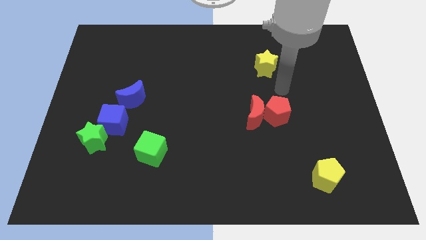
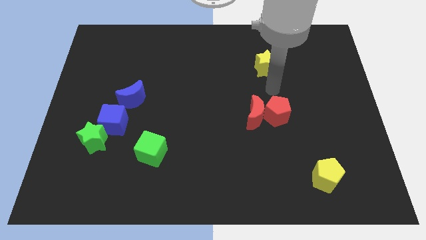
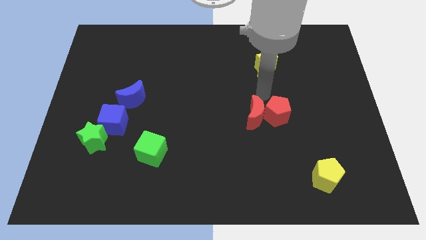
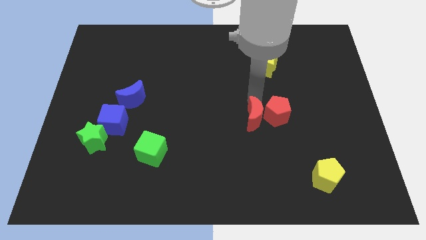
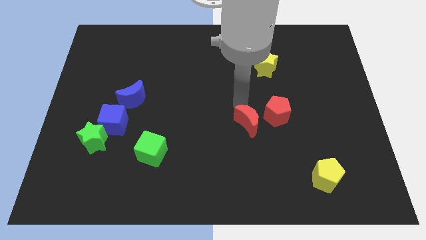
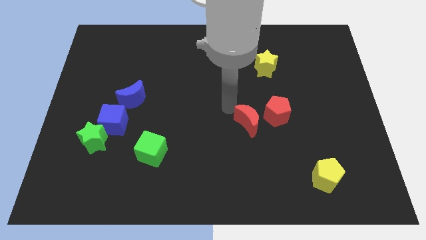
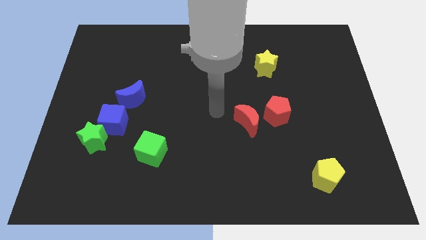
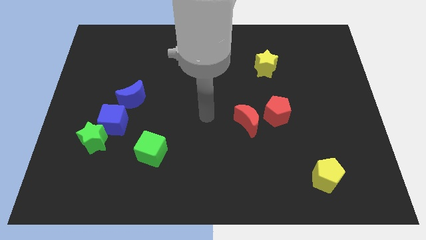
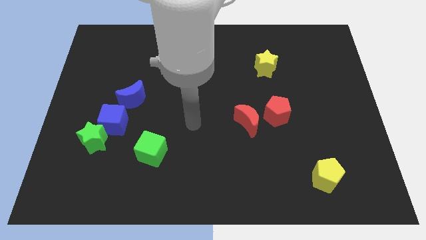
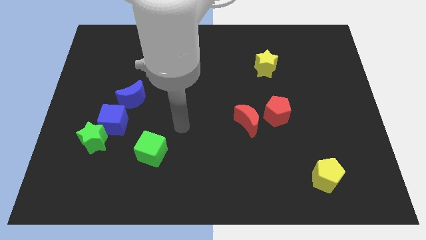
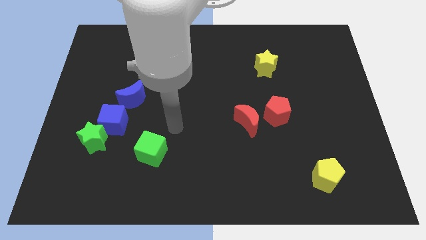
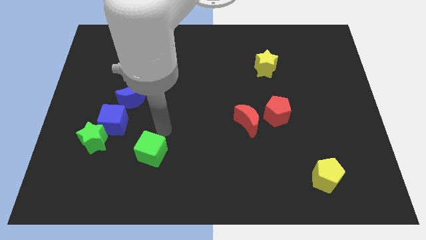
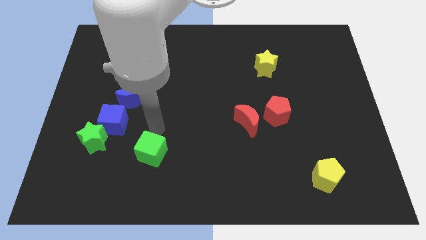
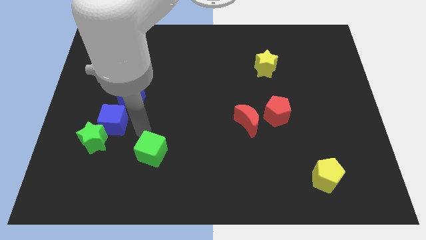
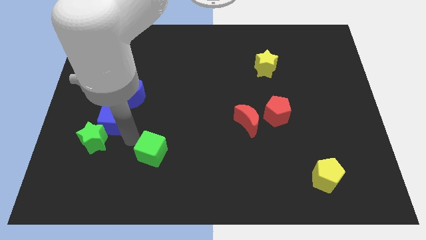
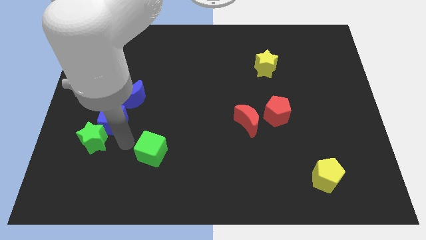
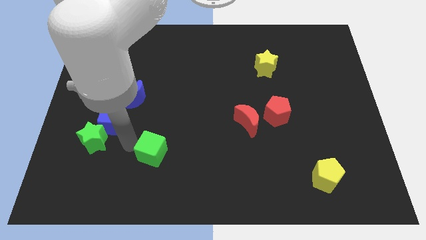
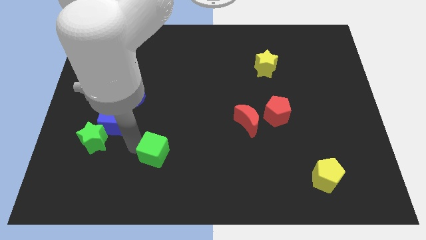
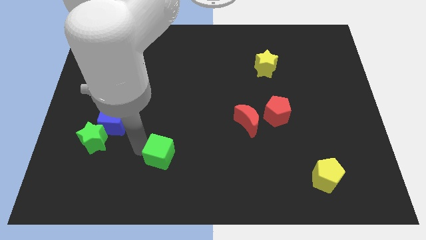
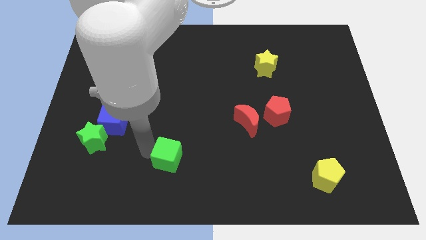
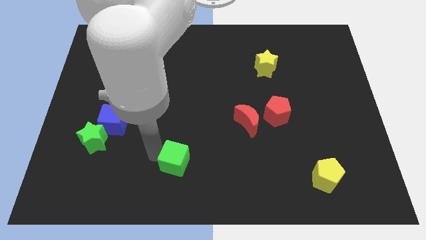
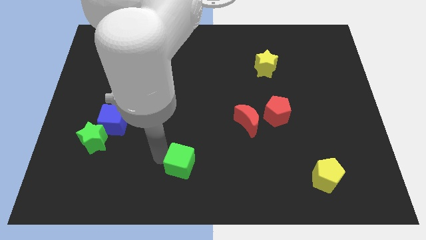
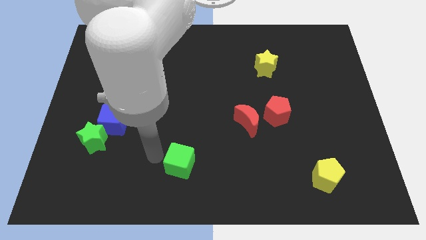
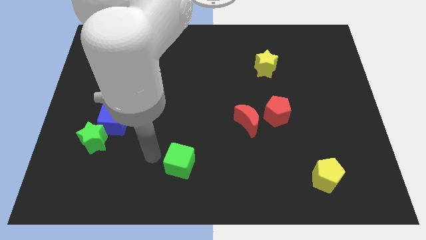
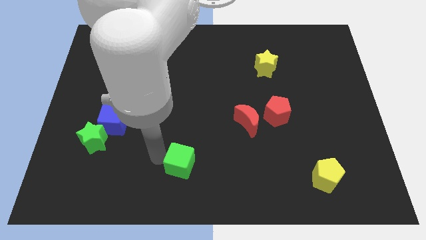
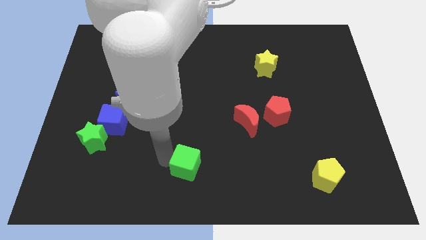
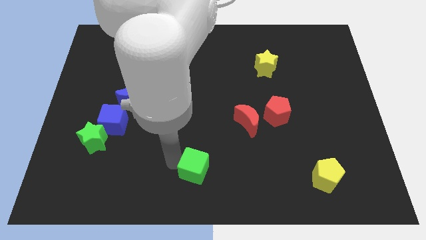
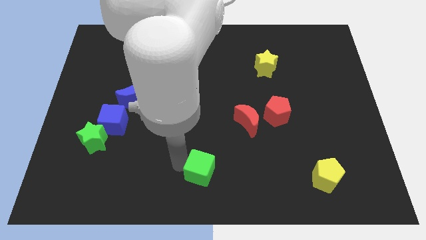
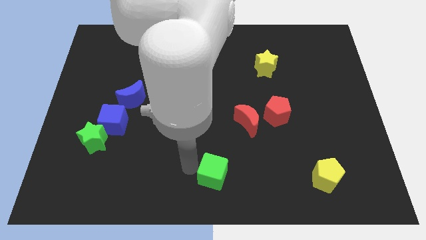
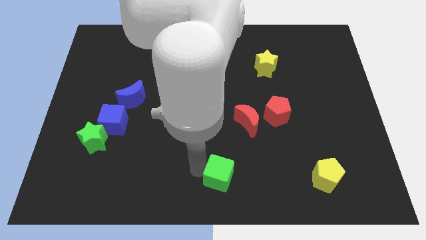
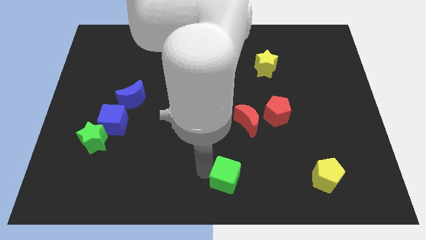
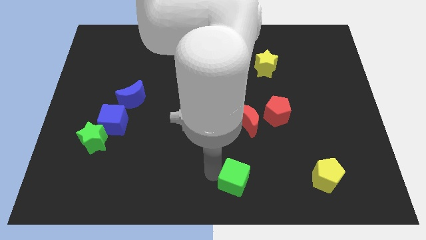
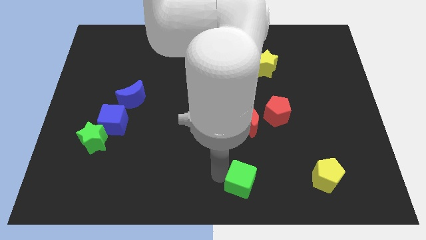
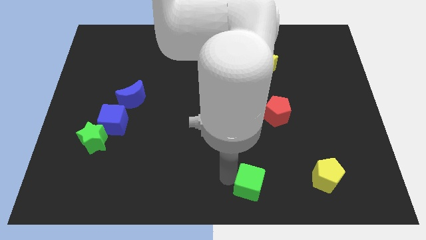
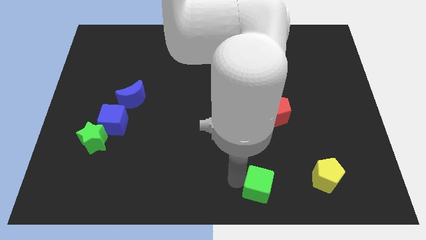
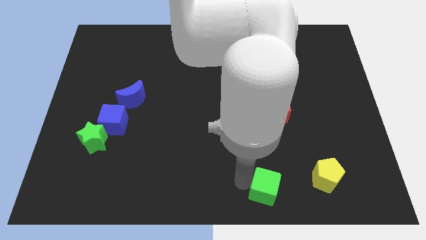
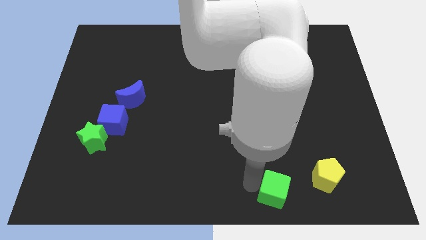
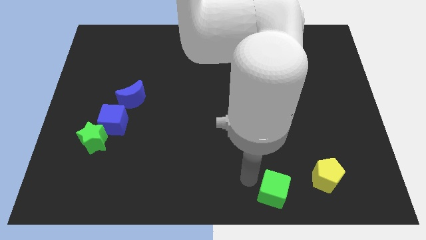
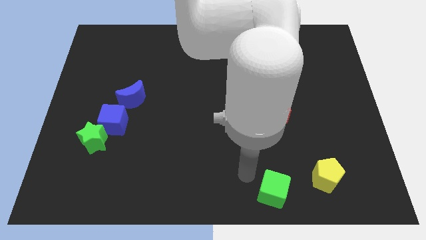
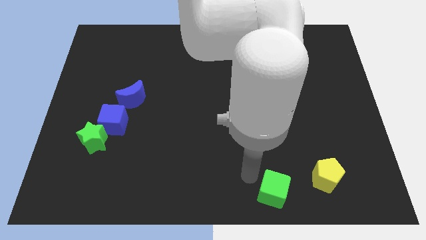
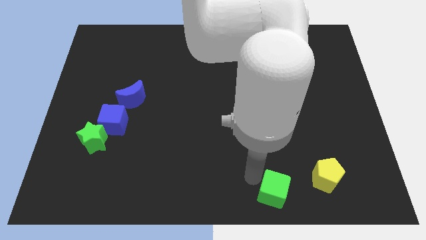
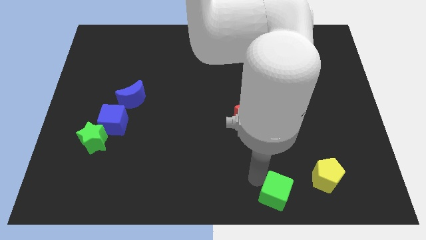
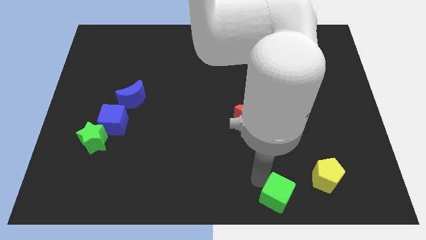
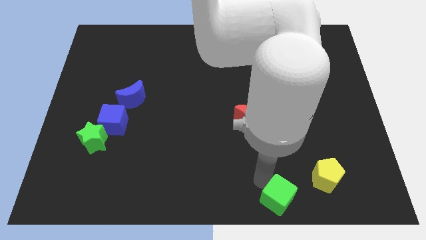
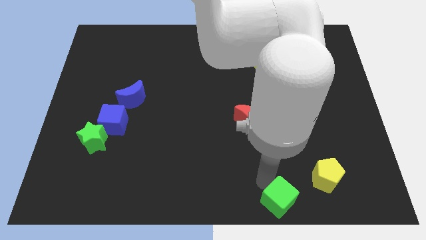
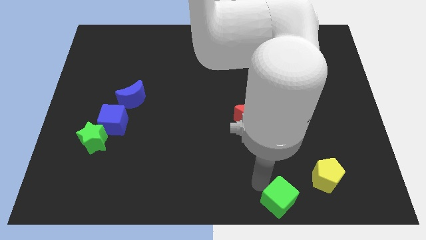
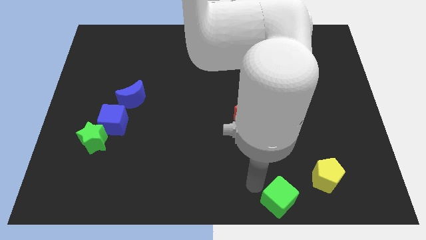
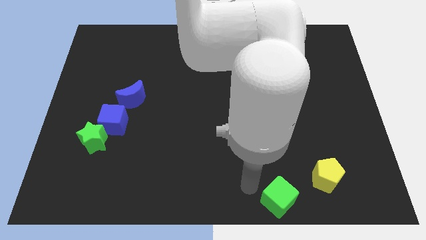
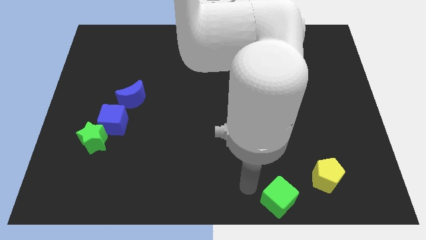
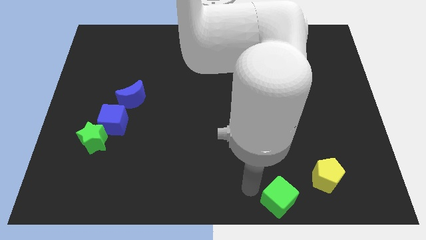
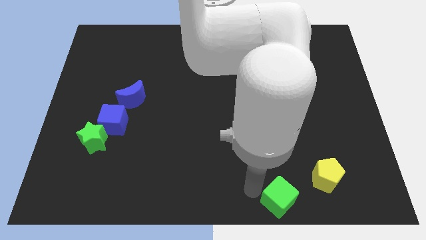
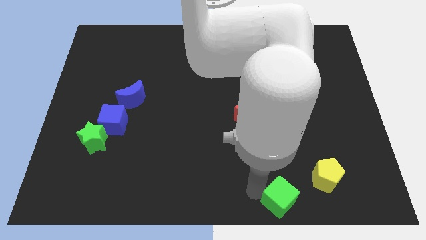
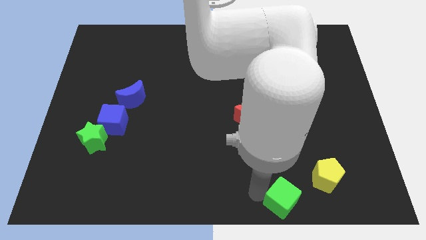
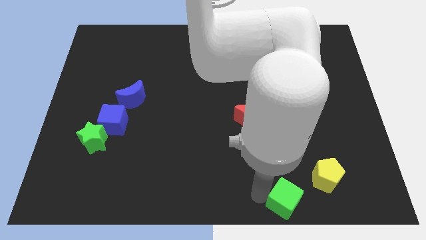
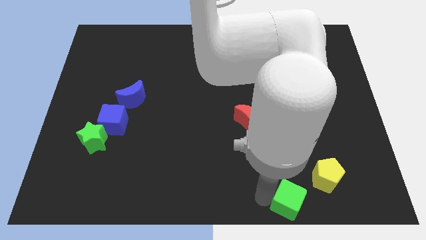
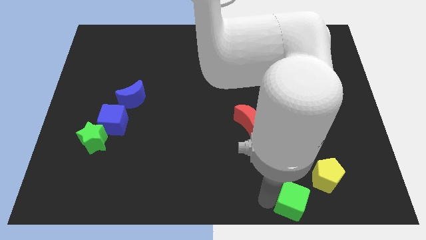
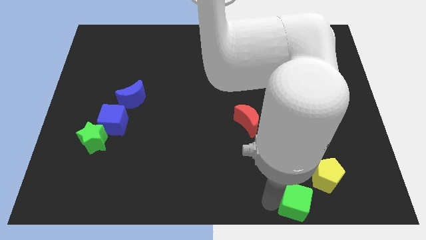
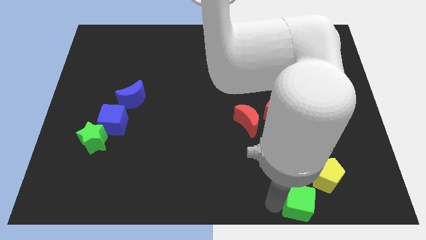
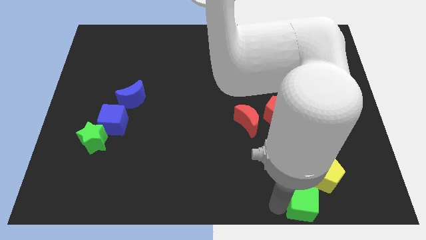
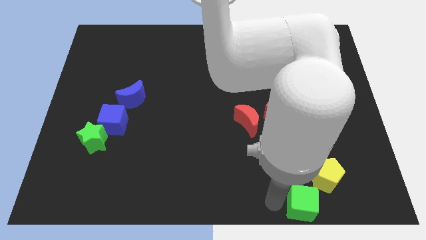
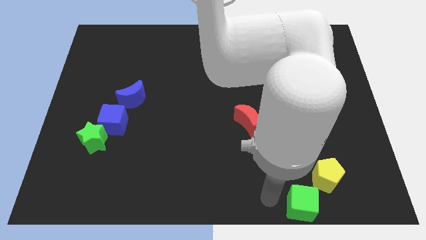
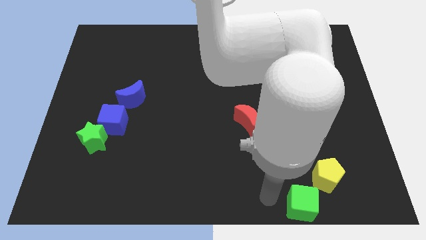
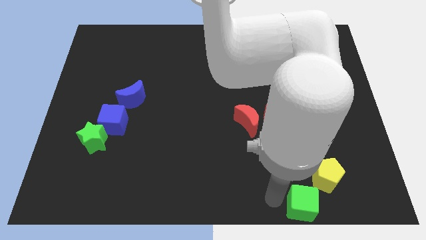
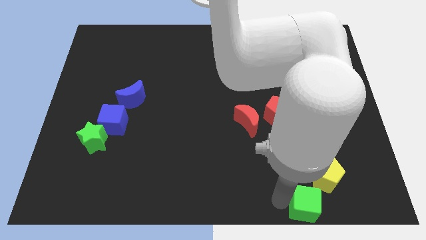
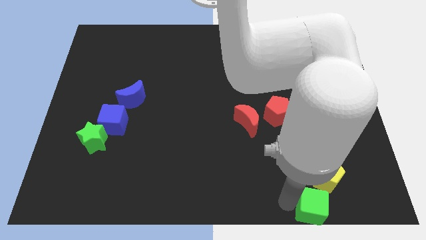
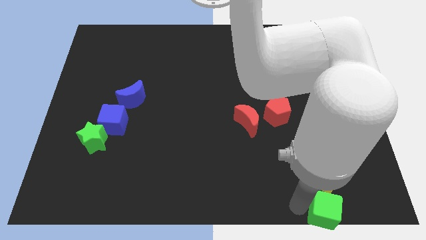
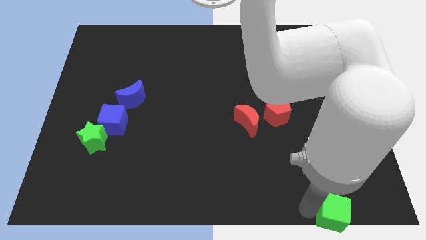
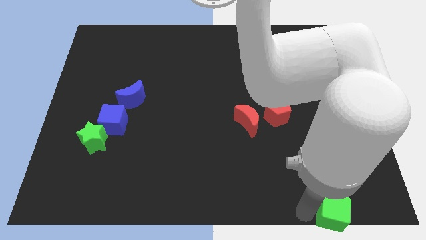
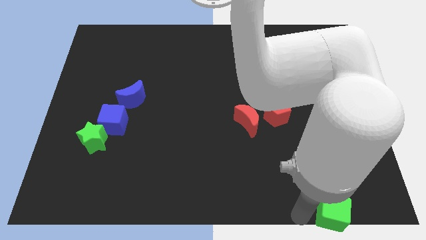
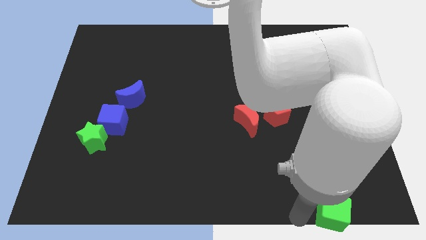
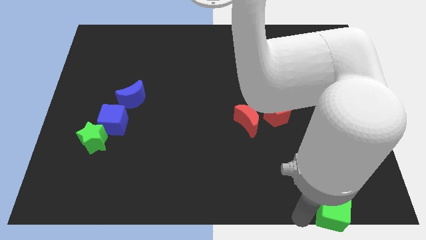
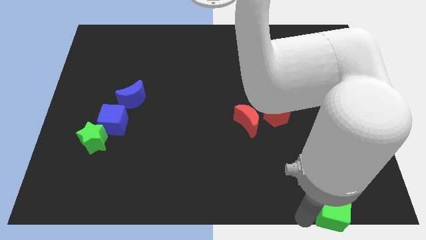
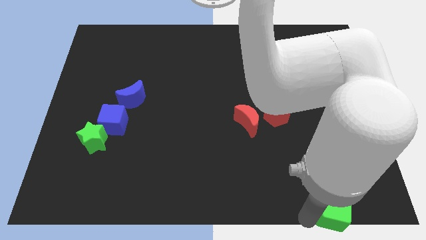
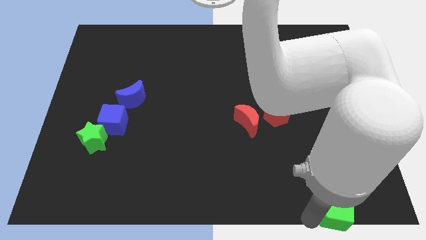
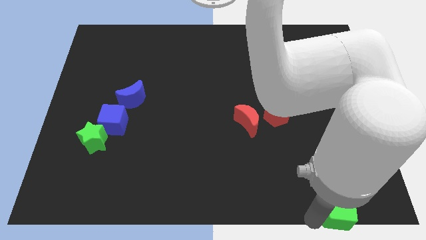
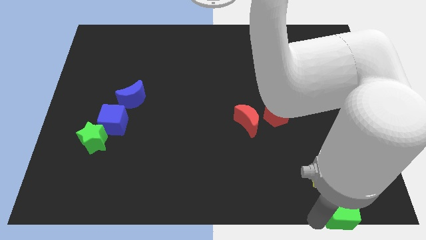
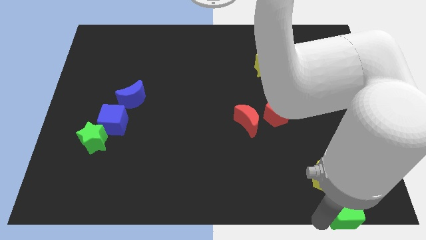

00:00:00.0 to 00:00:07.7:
move the green cube to the lower right corner

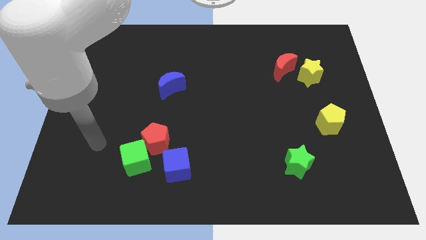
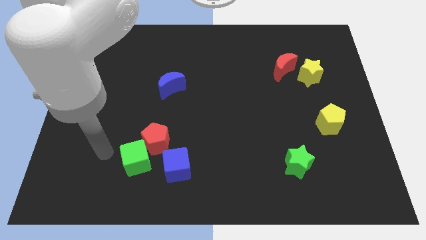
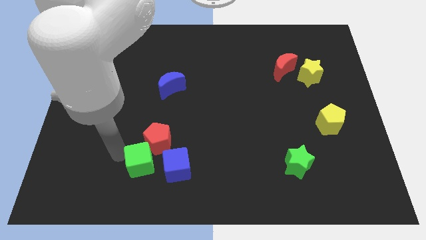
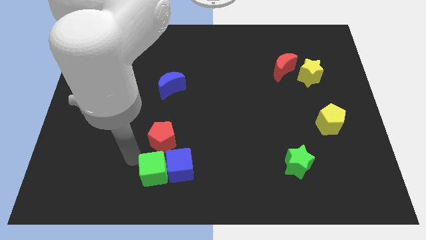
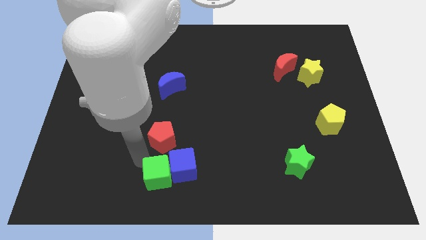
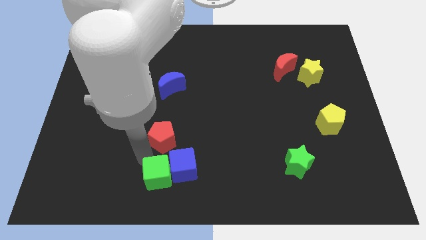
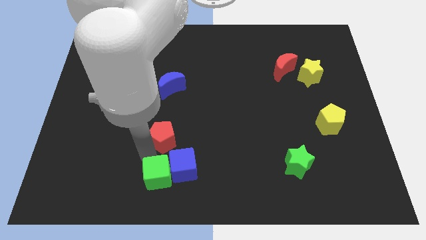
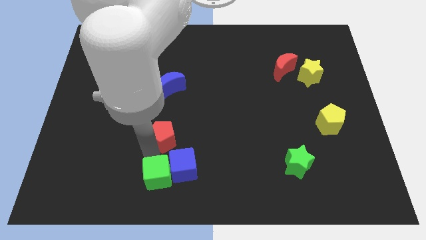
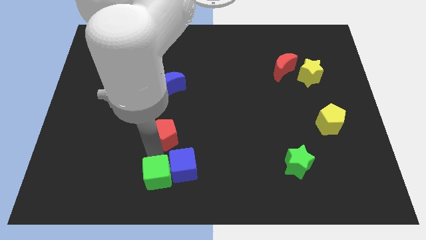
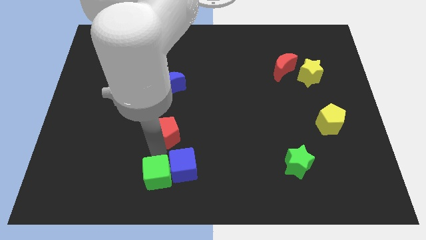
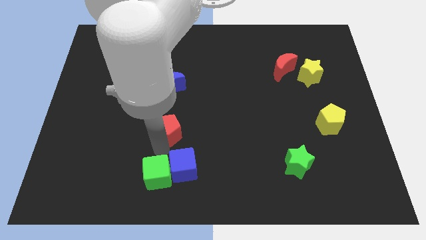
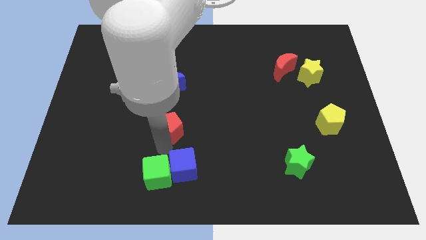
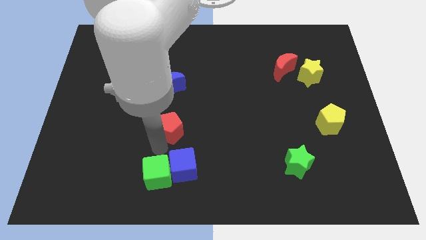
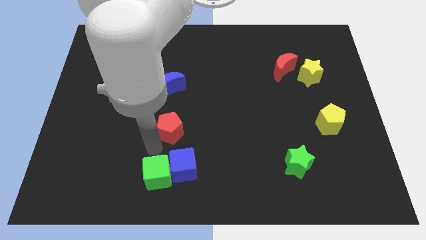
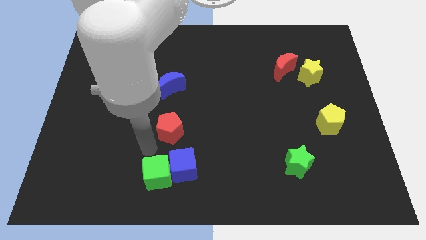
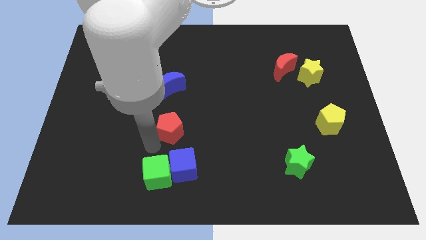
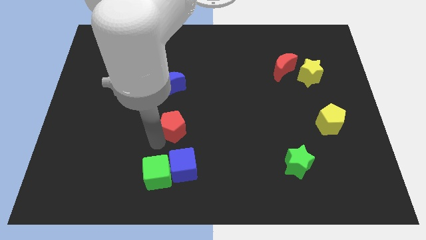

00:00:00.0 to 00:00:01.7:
slide the red pentagon to the center
